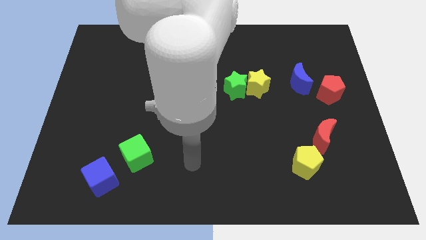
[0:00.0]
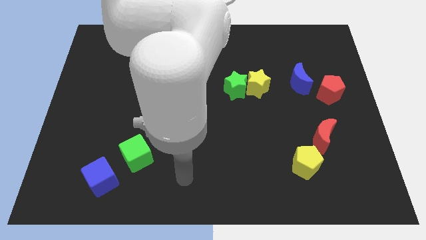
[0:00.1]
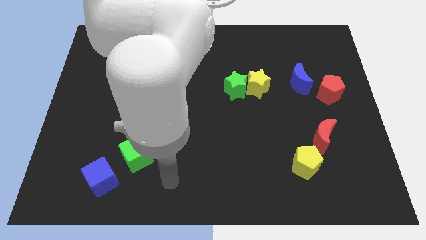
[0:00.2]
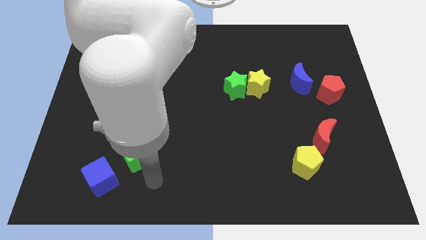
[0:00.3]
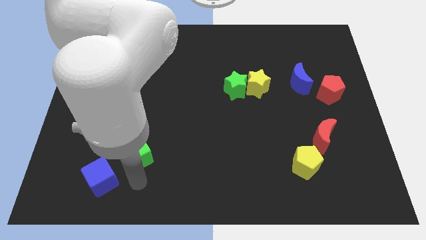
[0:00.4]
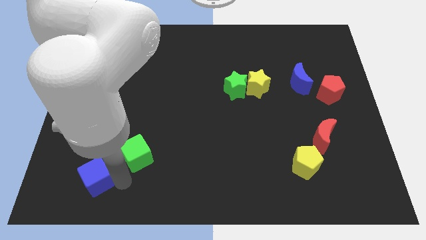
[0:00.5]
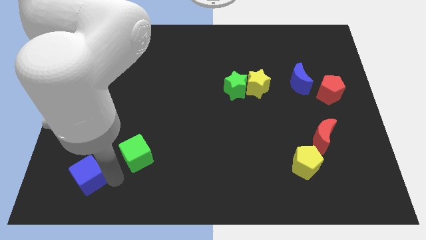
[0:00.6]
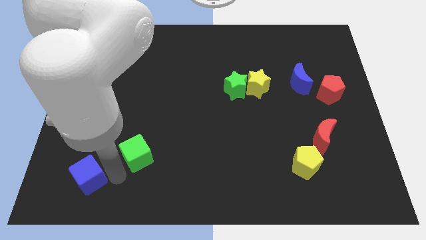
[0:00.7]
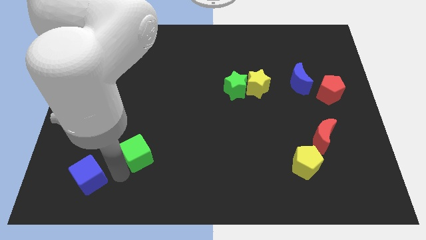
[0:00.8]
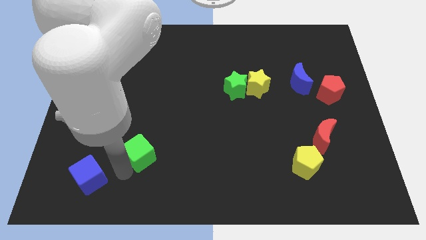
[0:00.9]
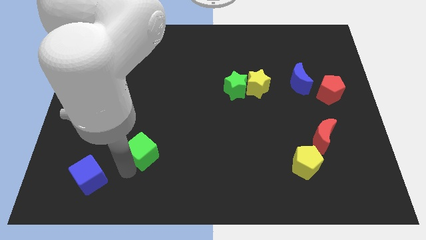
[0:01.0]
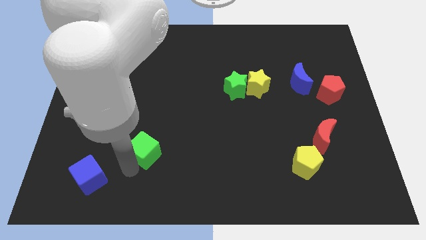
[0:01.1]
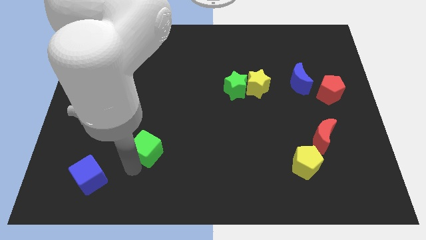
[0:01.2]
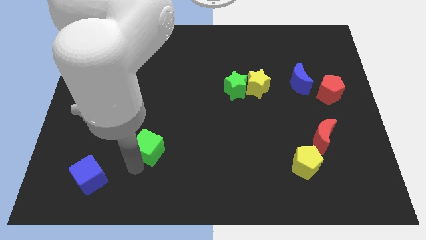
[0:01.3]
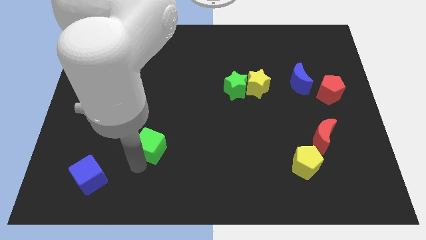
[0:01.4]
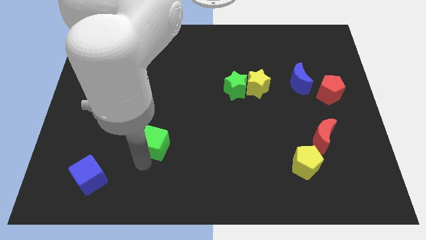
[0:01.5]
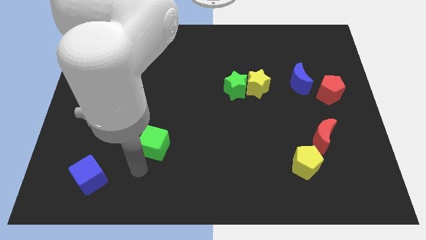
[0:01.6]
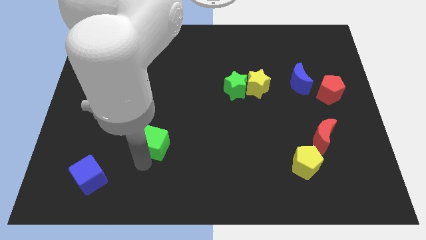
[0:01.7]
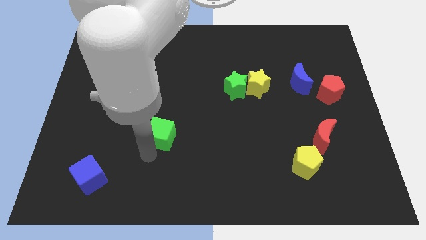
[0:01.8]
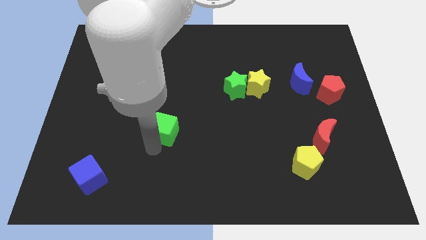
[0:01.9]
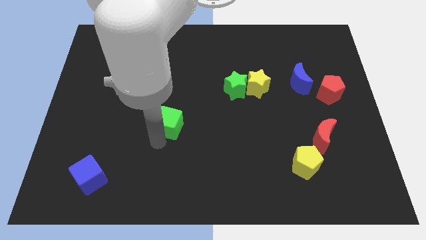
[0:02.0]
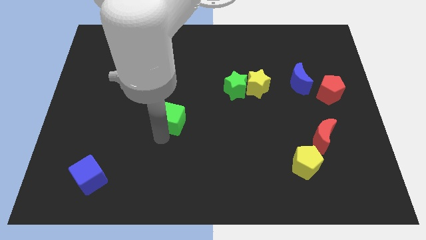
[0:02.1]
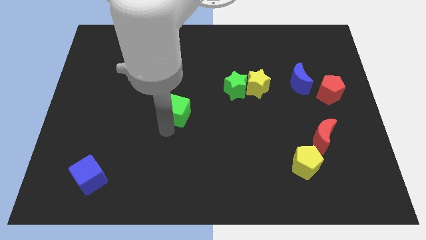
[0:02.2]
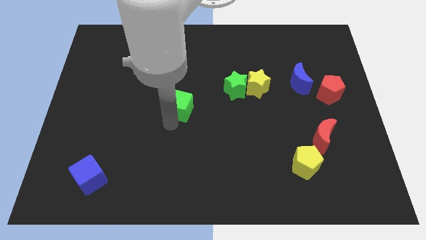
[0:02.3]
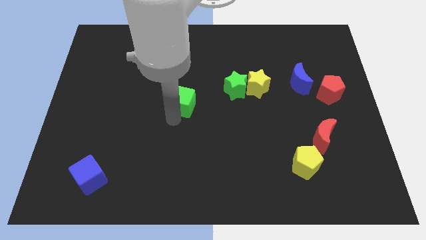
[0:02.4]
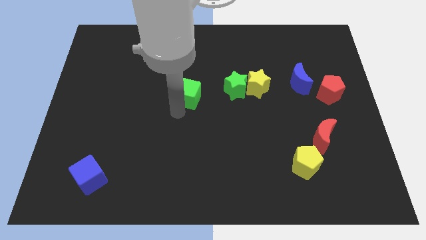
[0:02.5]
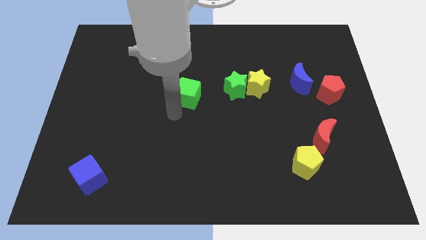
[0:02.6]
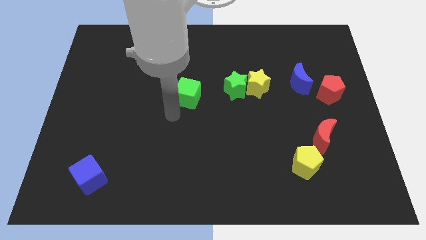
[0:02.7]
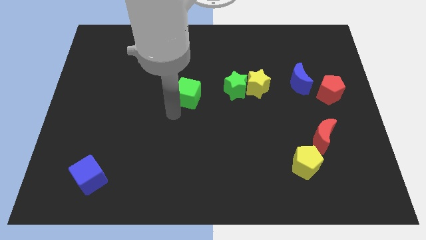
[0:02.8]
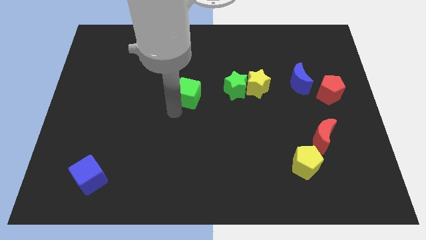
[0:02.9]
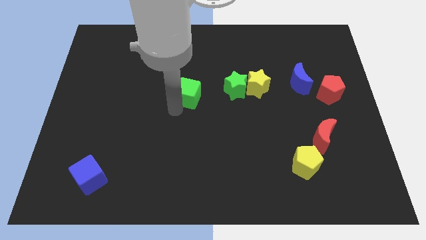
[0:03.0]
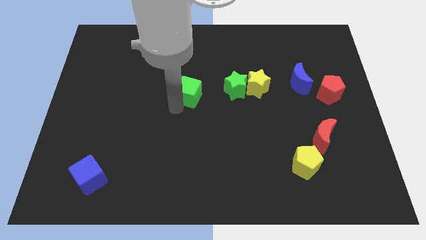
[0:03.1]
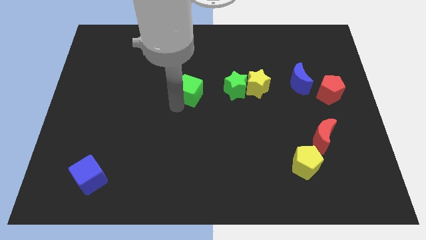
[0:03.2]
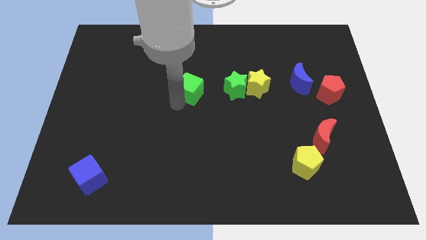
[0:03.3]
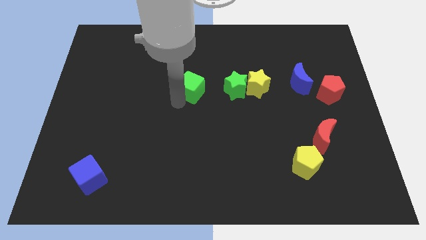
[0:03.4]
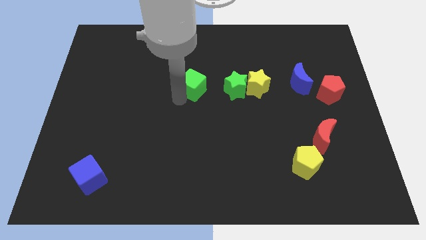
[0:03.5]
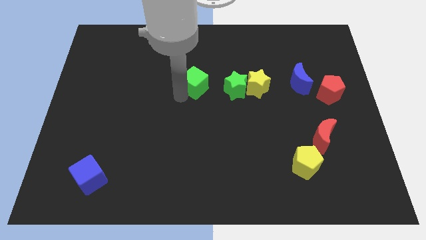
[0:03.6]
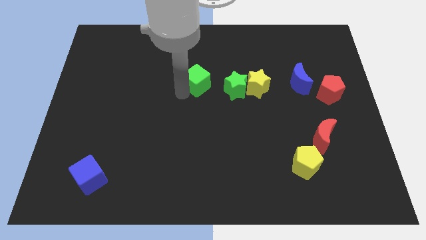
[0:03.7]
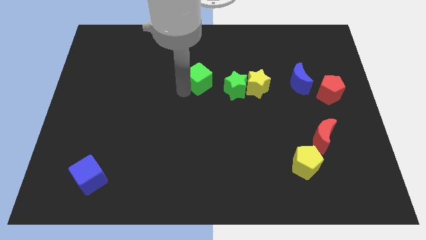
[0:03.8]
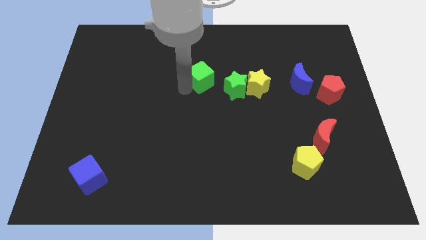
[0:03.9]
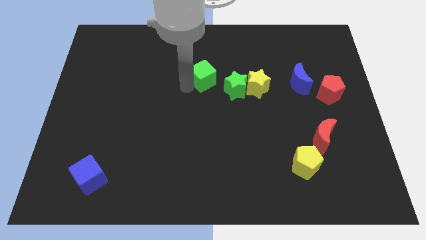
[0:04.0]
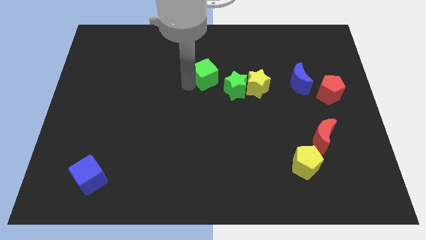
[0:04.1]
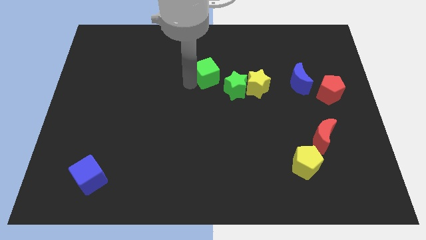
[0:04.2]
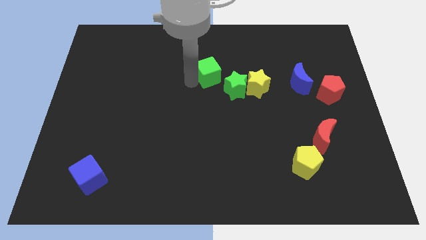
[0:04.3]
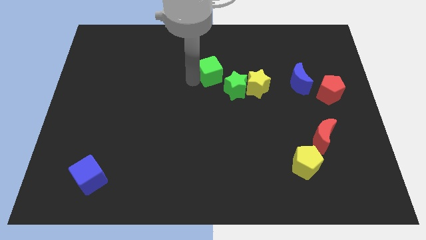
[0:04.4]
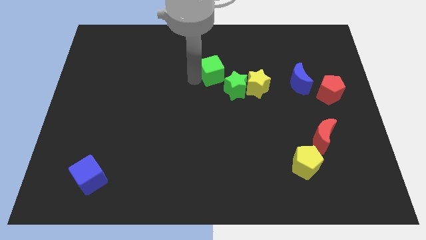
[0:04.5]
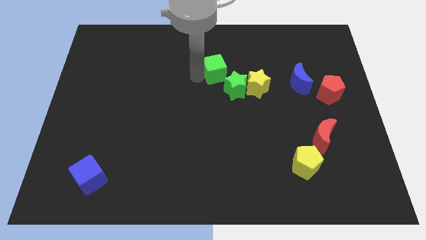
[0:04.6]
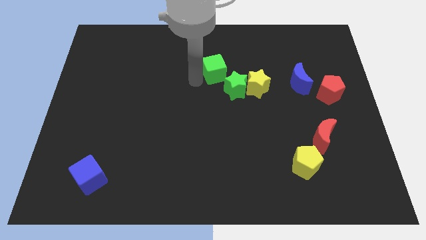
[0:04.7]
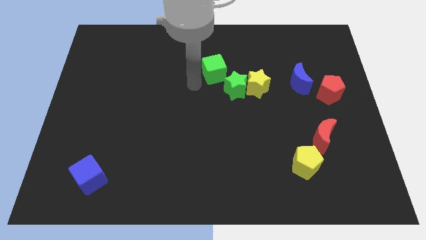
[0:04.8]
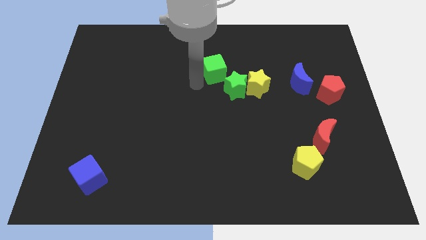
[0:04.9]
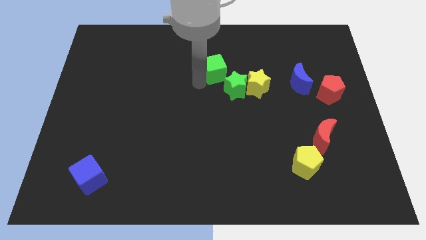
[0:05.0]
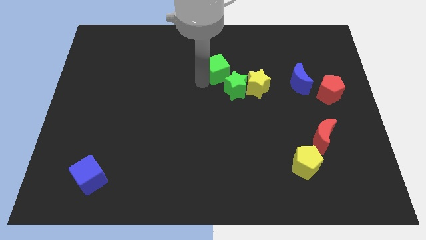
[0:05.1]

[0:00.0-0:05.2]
put the green cube above the green star

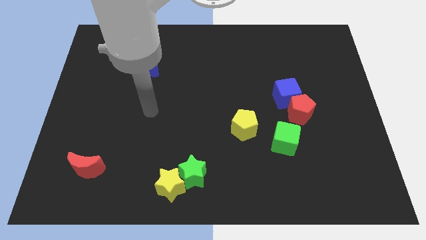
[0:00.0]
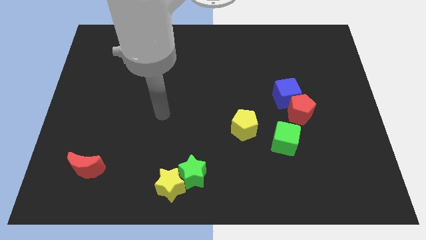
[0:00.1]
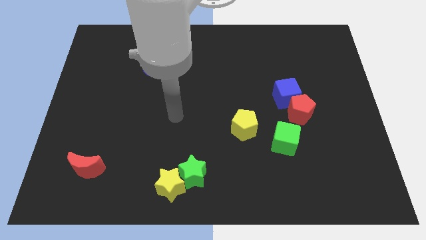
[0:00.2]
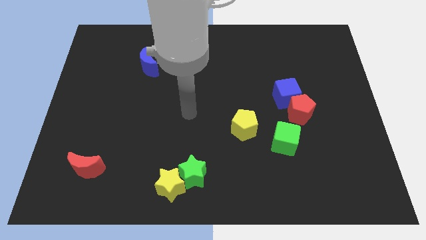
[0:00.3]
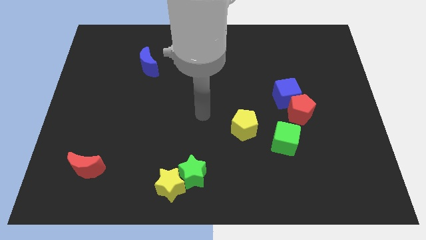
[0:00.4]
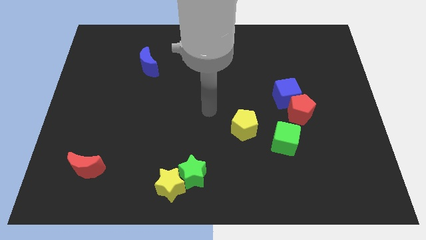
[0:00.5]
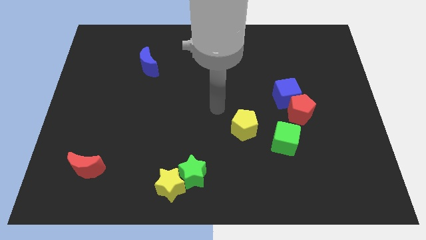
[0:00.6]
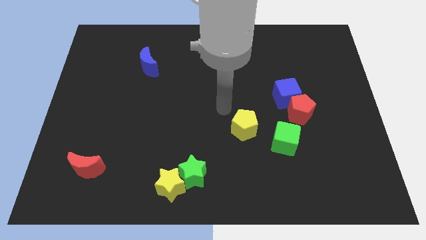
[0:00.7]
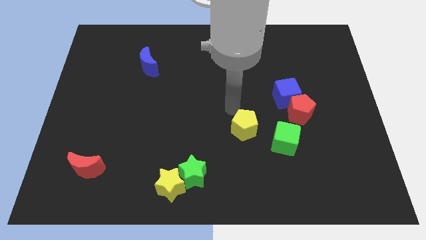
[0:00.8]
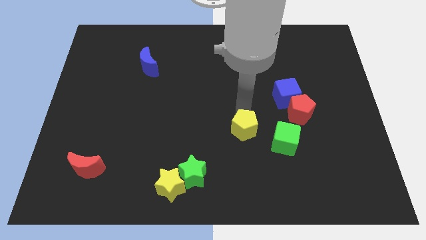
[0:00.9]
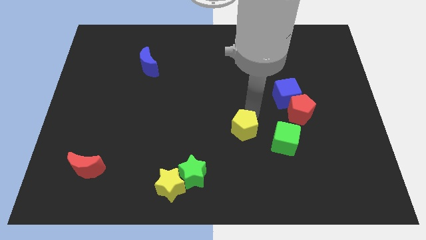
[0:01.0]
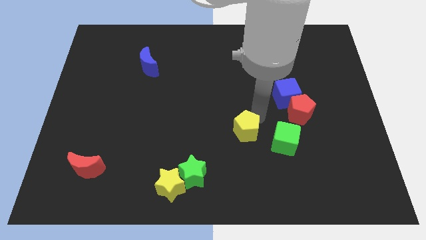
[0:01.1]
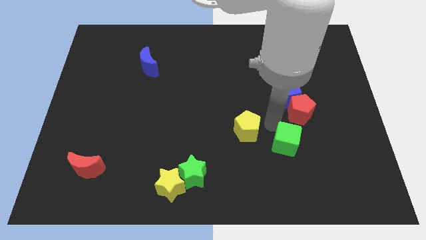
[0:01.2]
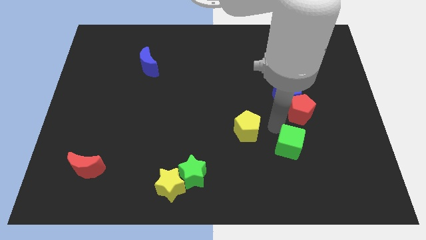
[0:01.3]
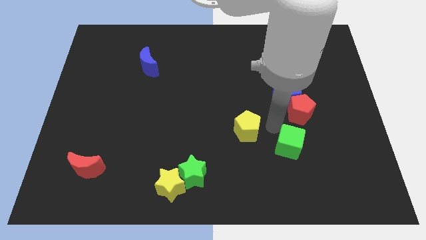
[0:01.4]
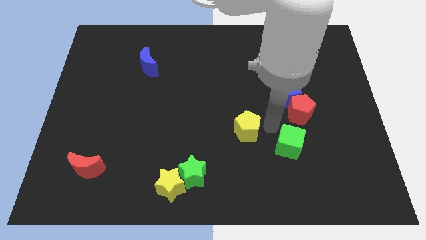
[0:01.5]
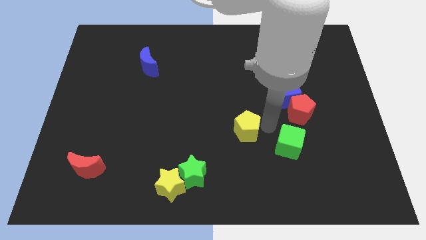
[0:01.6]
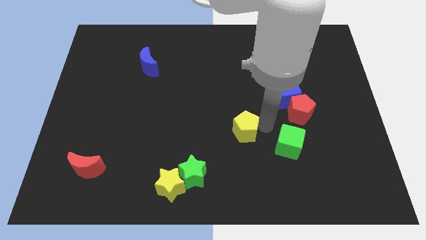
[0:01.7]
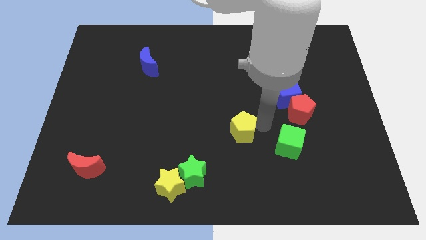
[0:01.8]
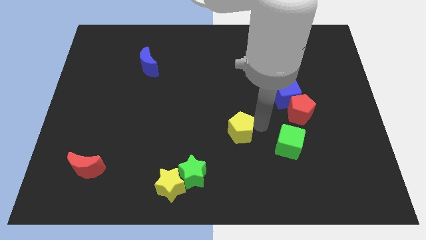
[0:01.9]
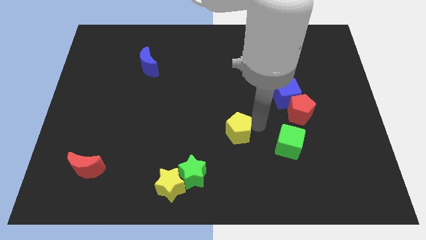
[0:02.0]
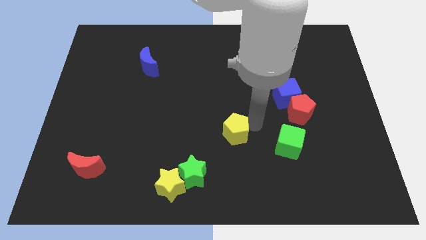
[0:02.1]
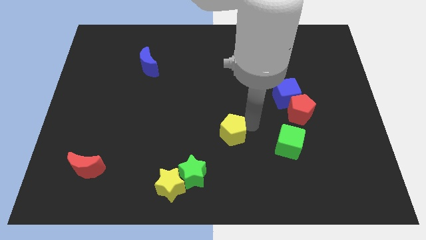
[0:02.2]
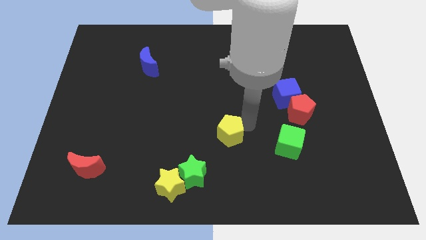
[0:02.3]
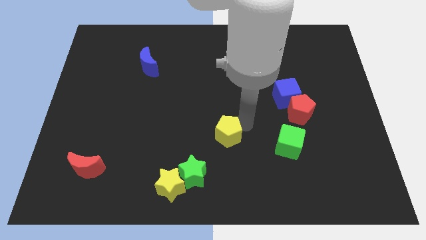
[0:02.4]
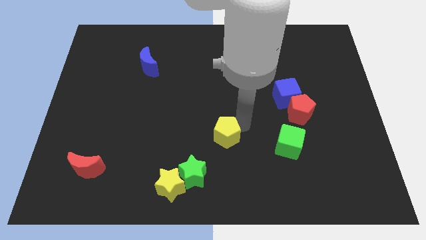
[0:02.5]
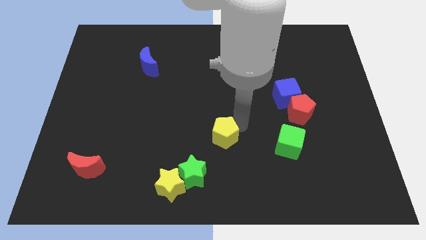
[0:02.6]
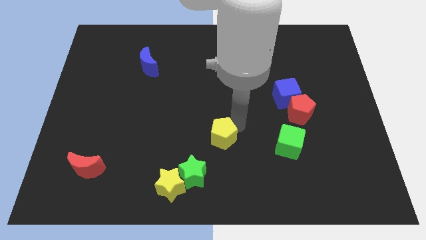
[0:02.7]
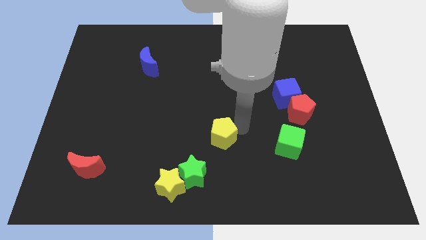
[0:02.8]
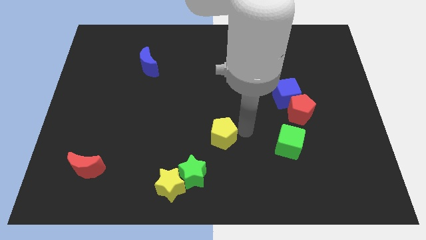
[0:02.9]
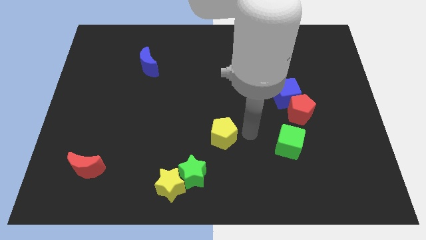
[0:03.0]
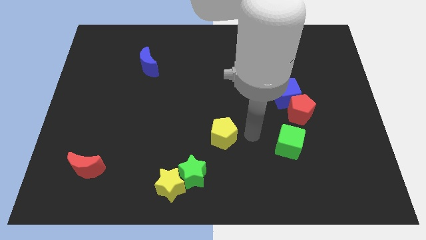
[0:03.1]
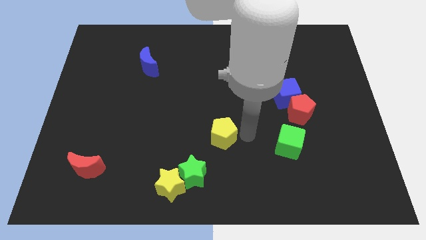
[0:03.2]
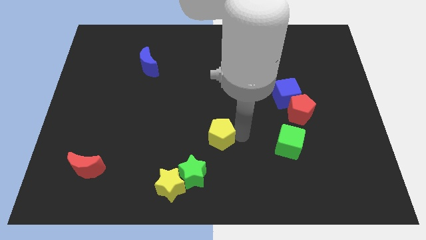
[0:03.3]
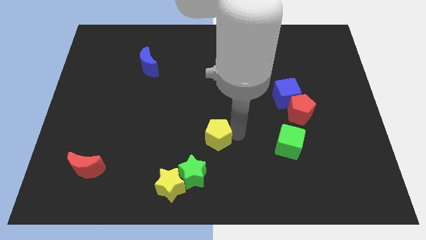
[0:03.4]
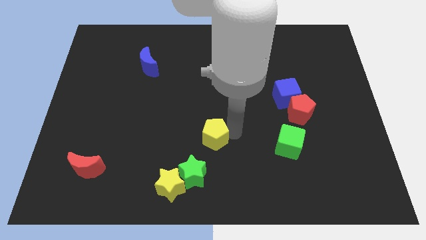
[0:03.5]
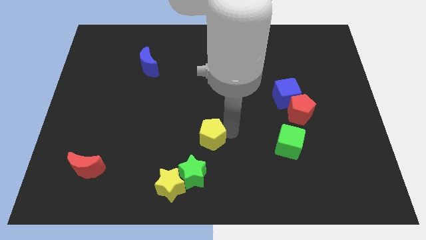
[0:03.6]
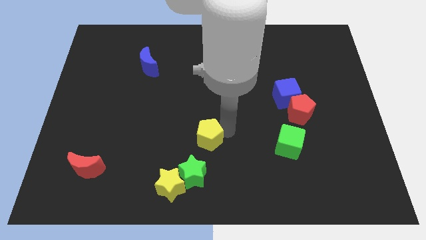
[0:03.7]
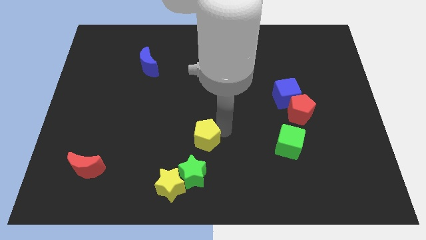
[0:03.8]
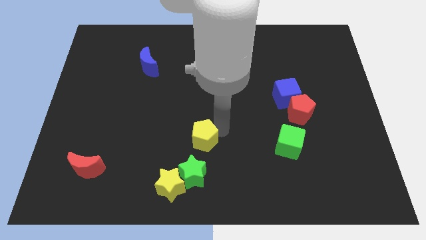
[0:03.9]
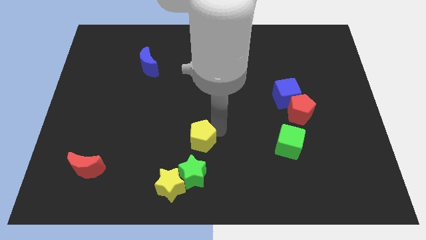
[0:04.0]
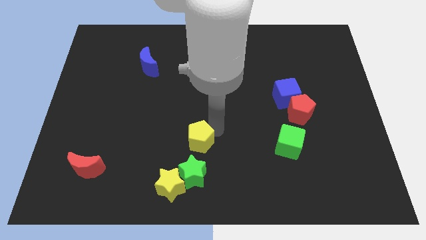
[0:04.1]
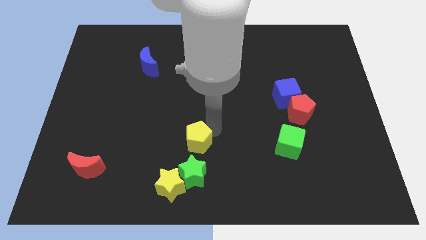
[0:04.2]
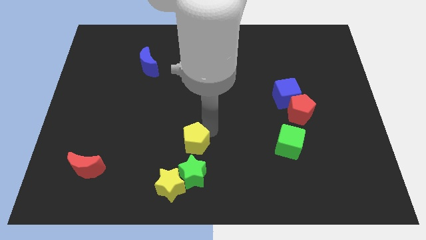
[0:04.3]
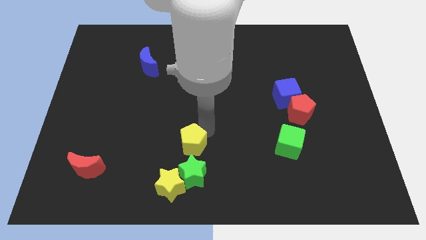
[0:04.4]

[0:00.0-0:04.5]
slide the yellow pentagon to the top left side of the green star
